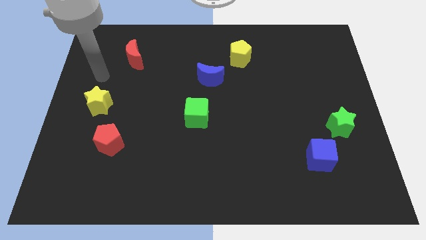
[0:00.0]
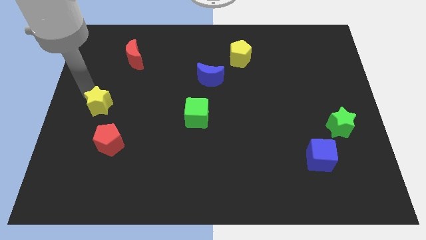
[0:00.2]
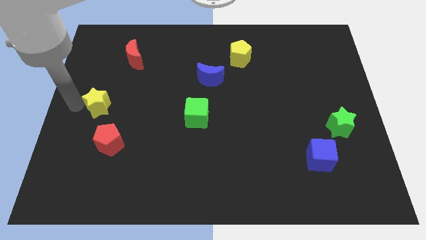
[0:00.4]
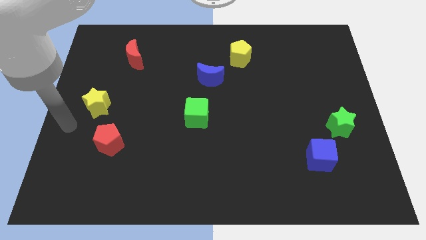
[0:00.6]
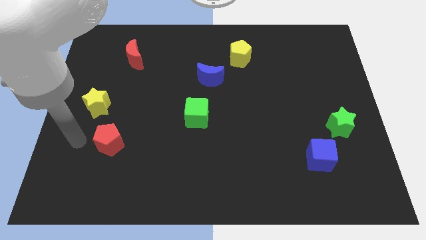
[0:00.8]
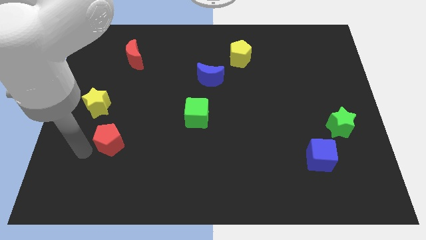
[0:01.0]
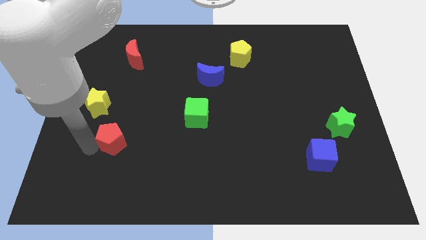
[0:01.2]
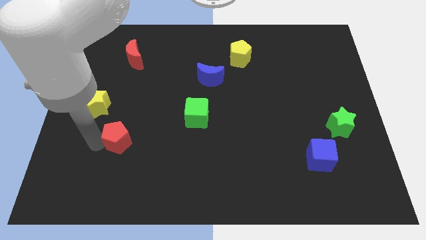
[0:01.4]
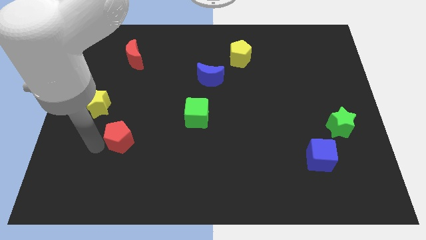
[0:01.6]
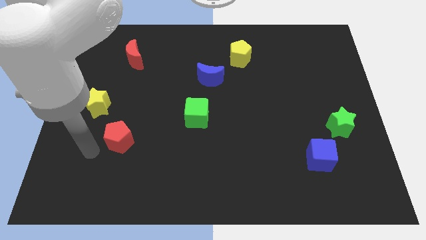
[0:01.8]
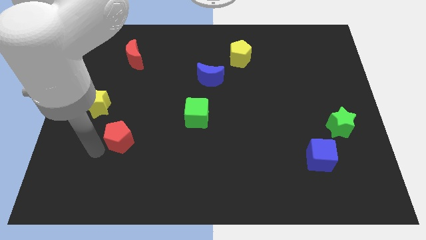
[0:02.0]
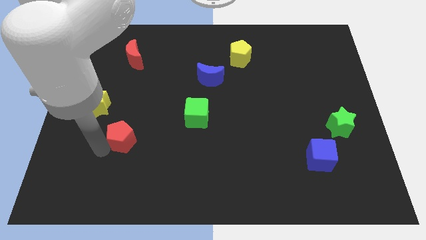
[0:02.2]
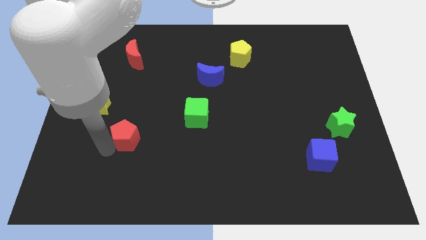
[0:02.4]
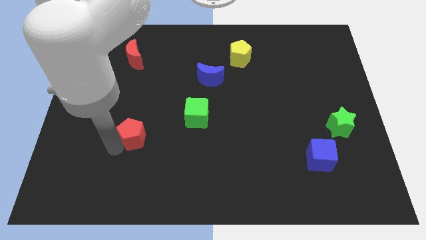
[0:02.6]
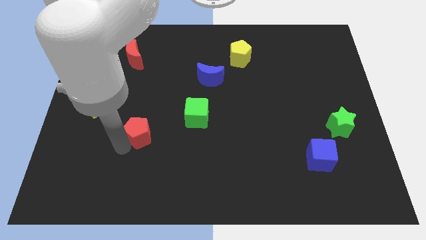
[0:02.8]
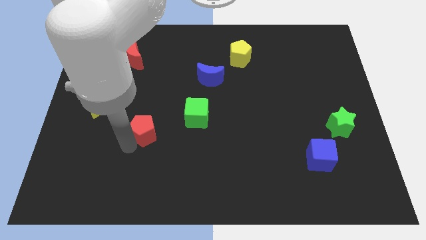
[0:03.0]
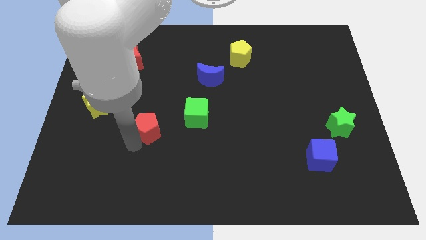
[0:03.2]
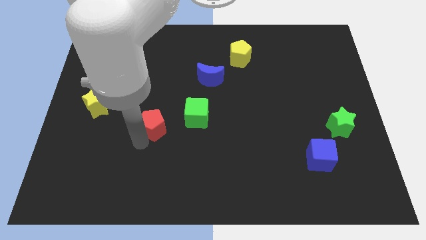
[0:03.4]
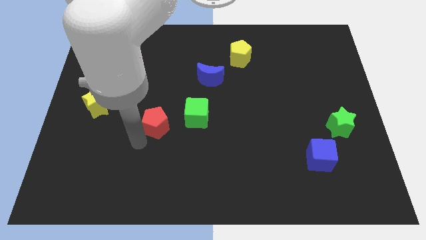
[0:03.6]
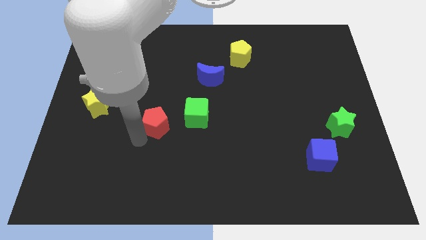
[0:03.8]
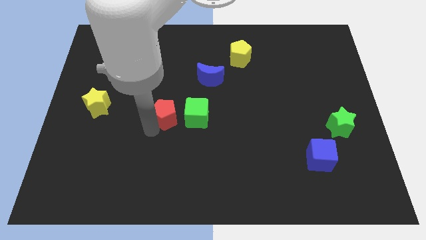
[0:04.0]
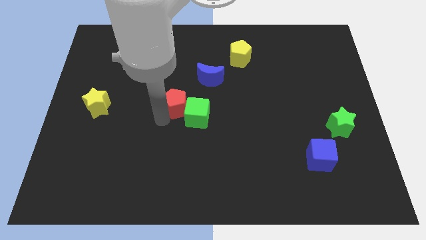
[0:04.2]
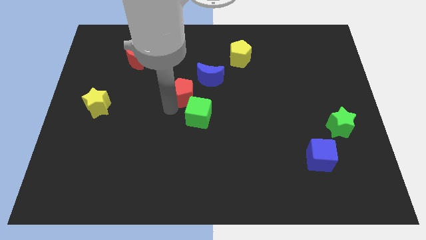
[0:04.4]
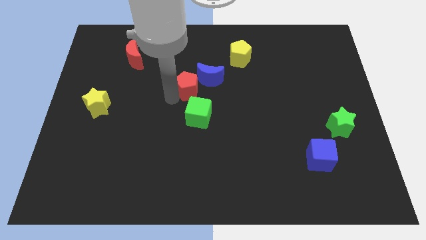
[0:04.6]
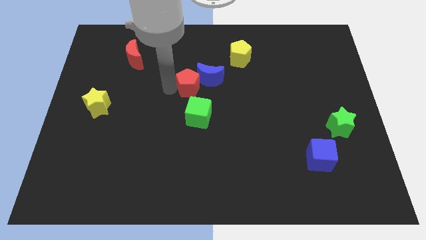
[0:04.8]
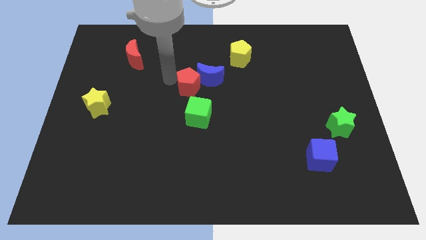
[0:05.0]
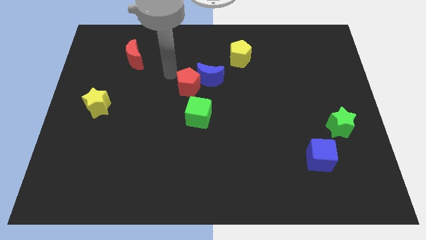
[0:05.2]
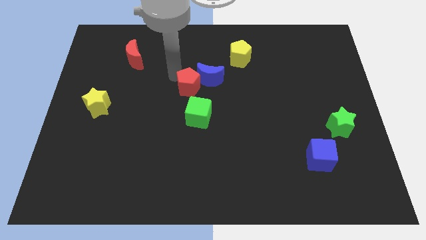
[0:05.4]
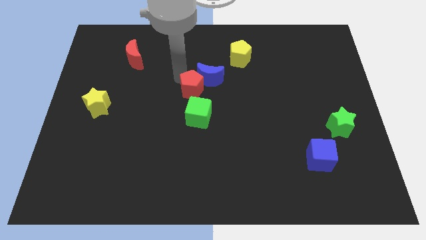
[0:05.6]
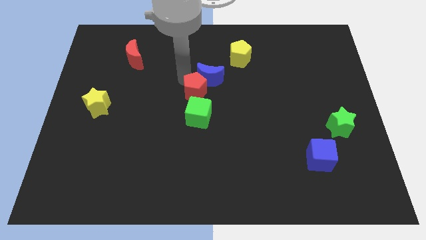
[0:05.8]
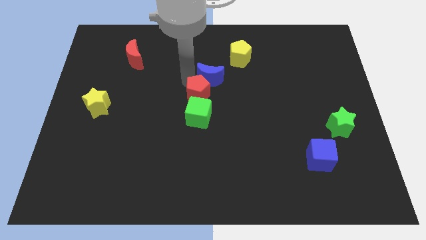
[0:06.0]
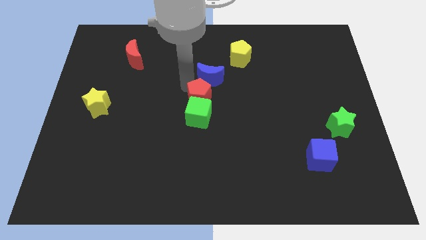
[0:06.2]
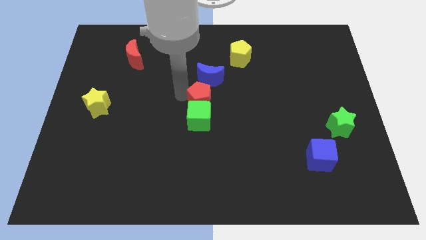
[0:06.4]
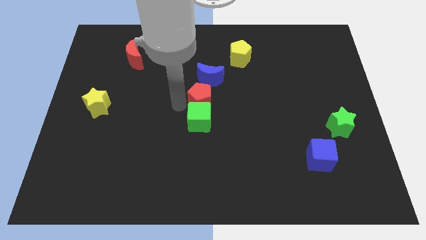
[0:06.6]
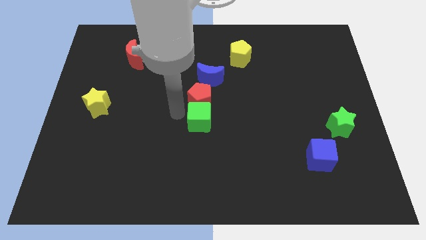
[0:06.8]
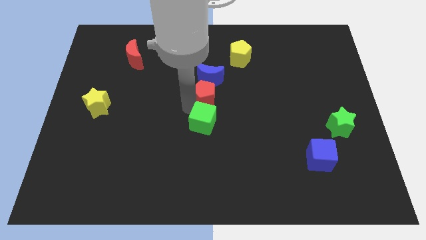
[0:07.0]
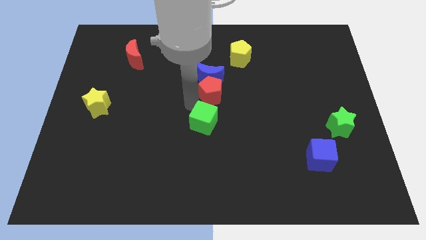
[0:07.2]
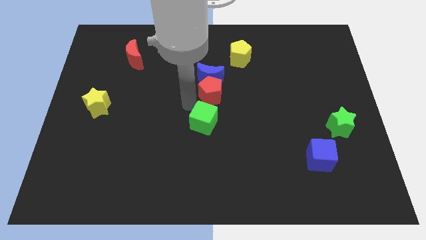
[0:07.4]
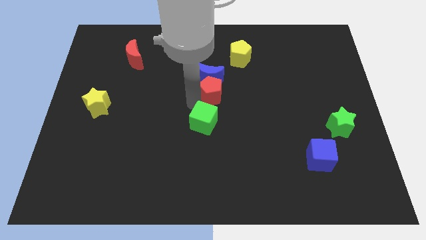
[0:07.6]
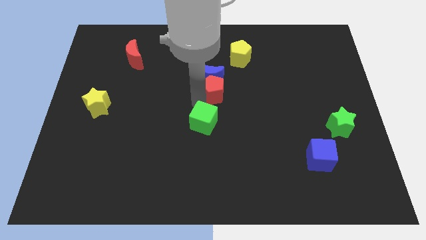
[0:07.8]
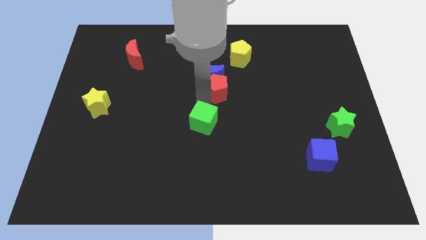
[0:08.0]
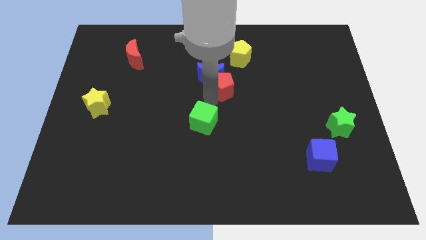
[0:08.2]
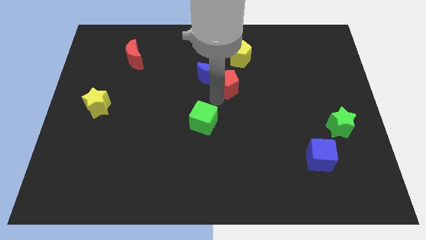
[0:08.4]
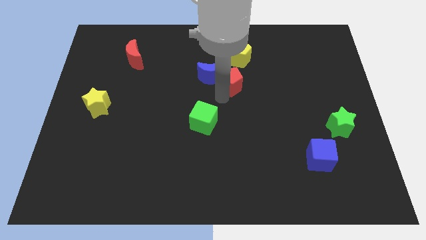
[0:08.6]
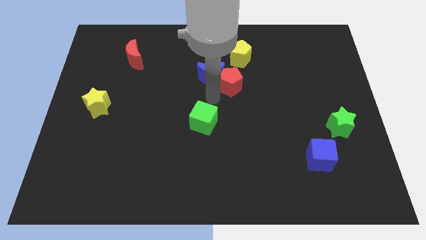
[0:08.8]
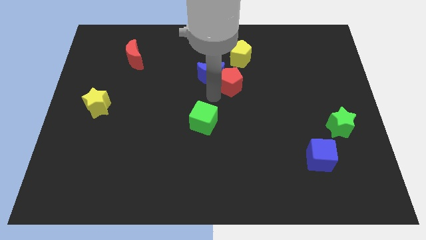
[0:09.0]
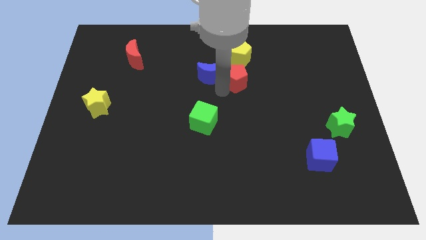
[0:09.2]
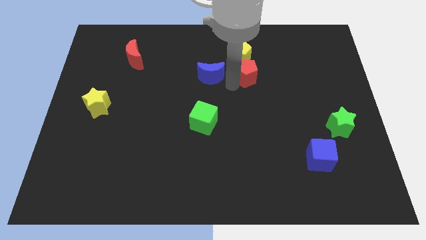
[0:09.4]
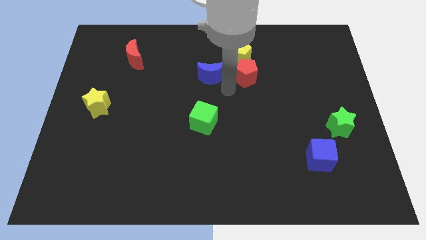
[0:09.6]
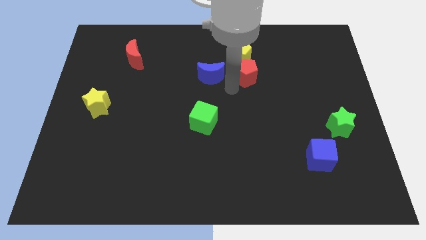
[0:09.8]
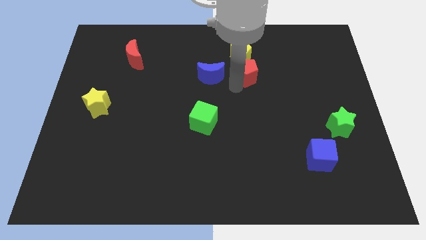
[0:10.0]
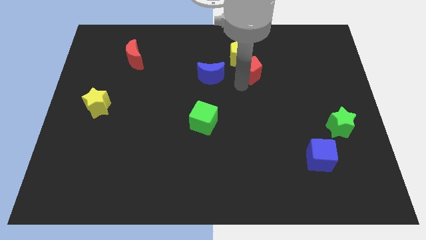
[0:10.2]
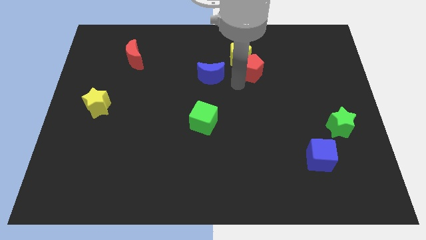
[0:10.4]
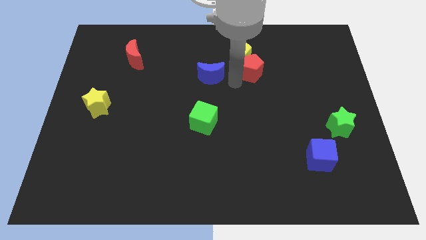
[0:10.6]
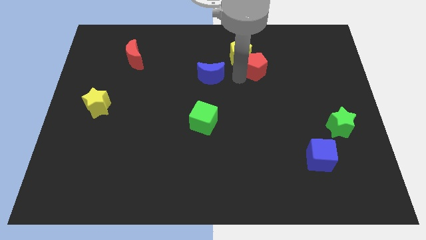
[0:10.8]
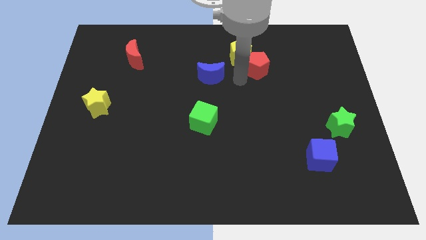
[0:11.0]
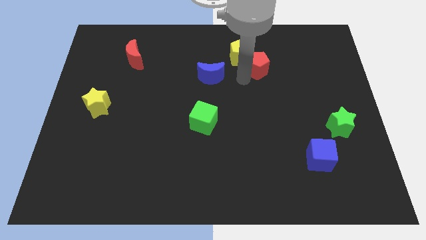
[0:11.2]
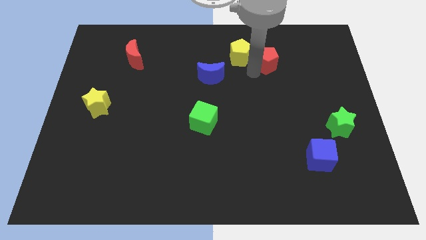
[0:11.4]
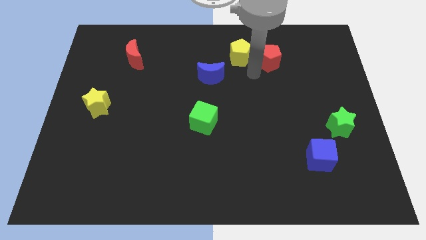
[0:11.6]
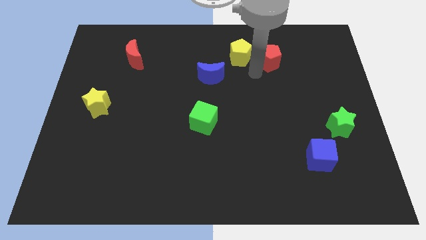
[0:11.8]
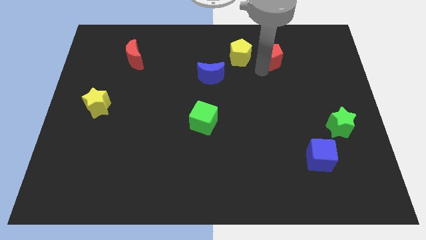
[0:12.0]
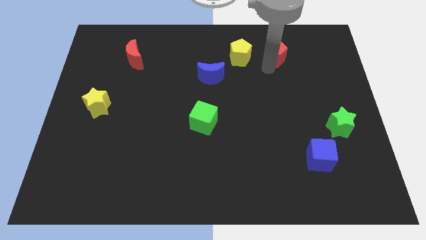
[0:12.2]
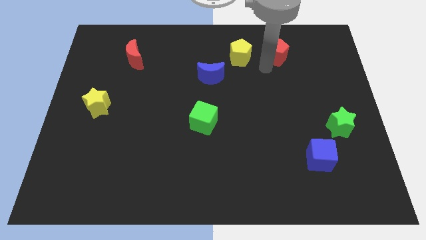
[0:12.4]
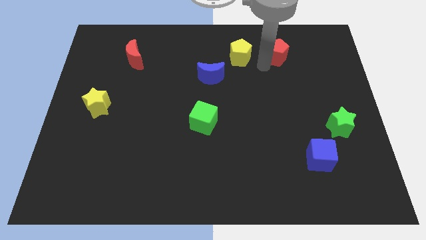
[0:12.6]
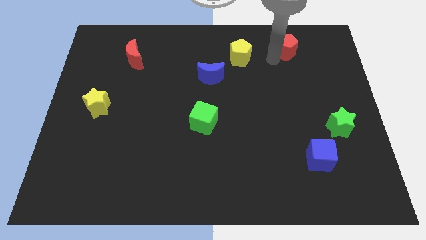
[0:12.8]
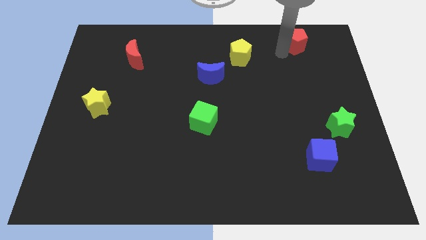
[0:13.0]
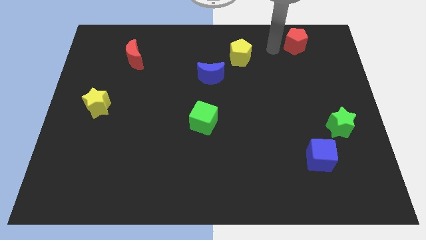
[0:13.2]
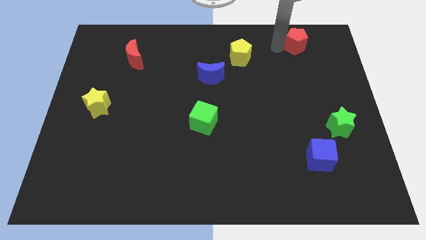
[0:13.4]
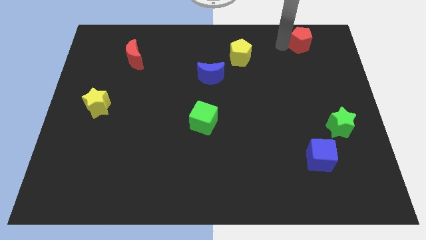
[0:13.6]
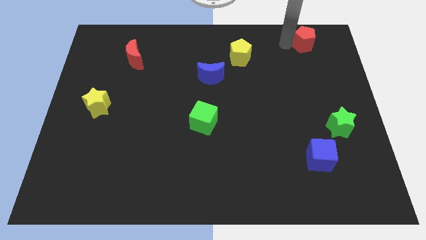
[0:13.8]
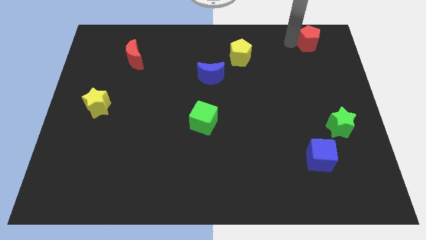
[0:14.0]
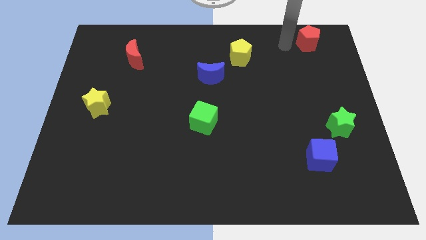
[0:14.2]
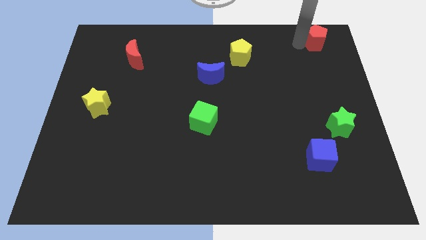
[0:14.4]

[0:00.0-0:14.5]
move the red pentagon to the top right of the board

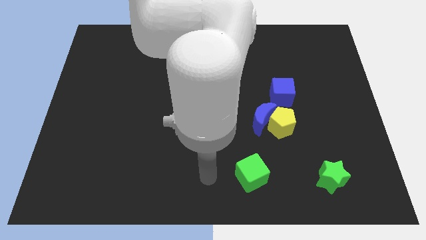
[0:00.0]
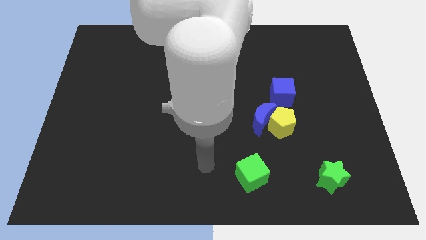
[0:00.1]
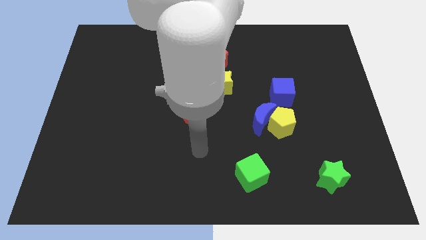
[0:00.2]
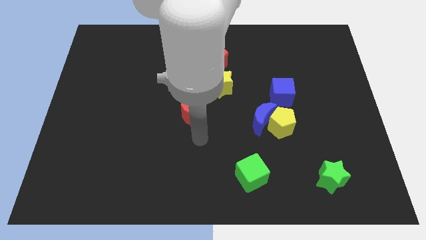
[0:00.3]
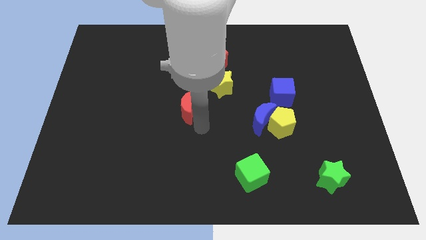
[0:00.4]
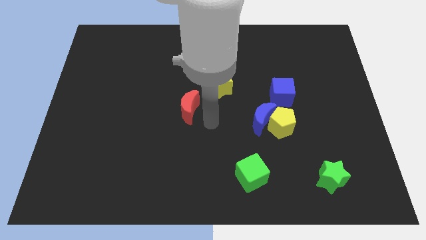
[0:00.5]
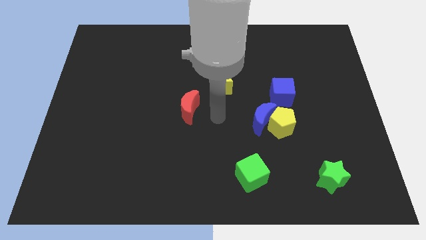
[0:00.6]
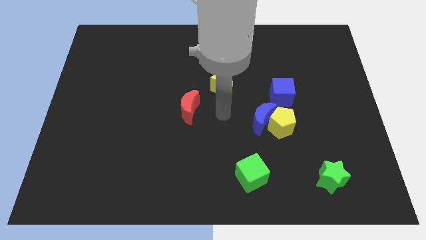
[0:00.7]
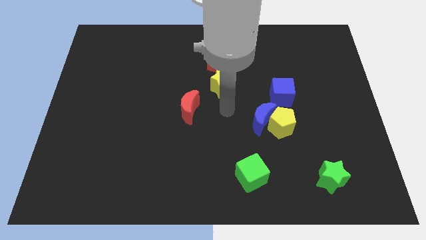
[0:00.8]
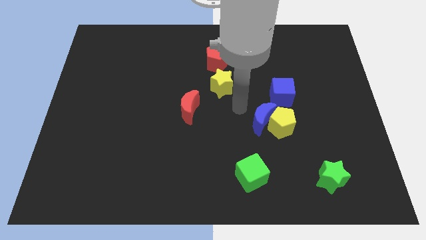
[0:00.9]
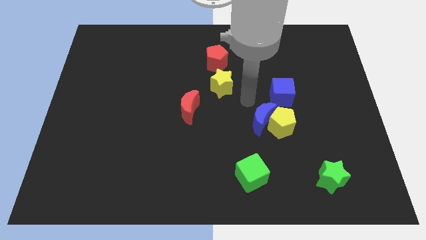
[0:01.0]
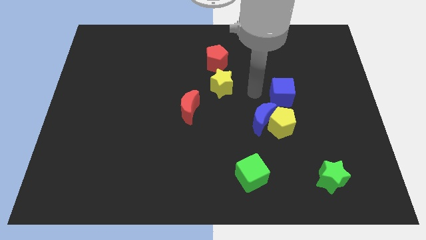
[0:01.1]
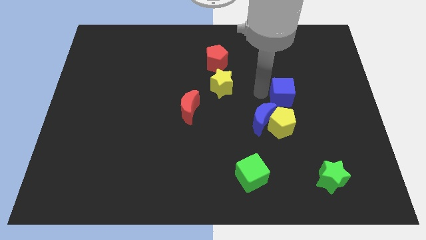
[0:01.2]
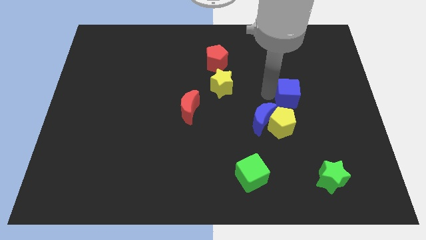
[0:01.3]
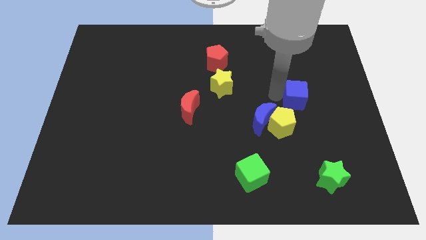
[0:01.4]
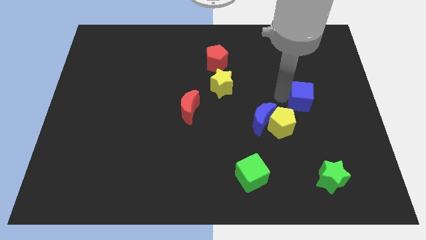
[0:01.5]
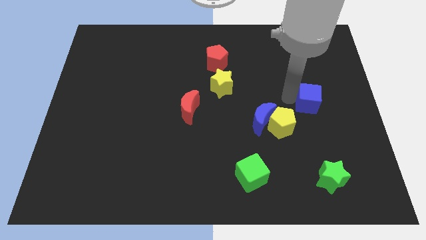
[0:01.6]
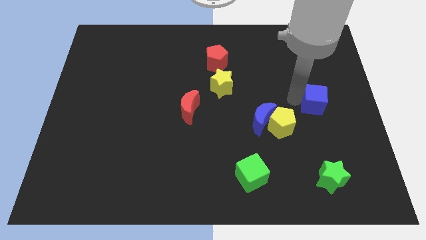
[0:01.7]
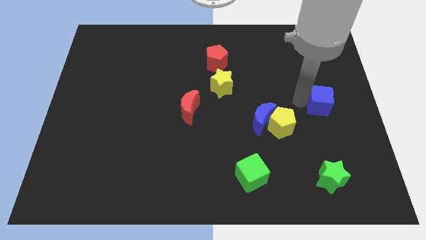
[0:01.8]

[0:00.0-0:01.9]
push the blue cube to the right side of the board
